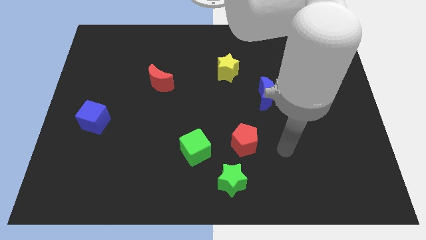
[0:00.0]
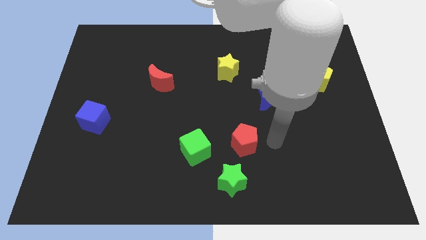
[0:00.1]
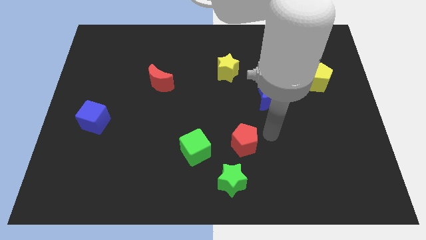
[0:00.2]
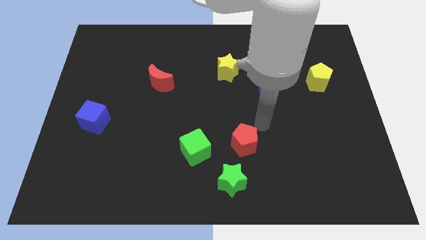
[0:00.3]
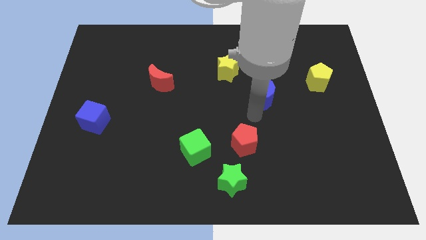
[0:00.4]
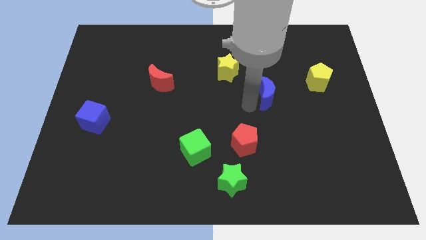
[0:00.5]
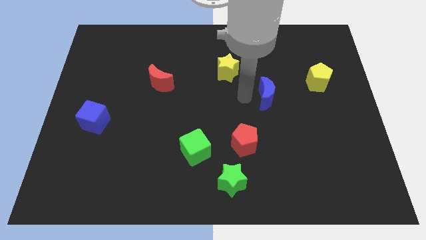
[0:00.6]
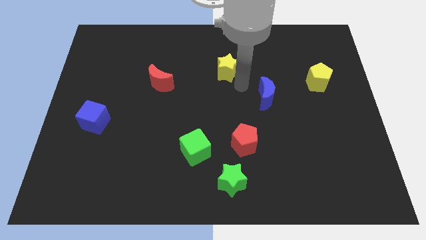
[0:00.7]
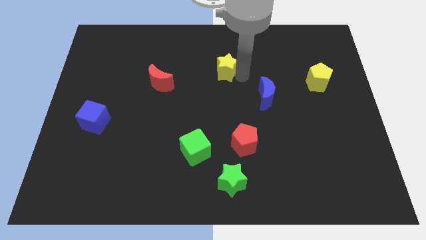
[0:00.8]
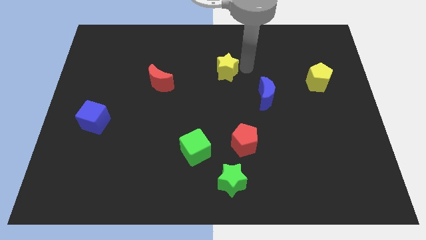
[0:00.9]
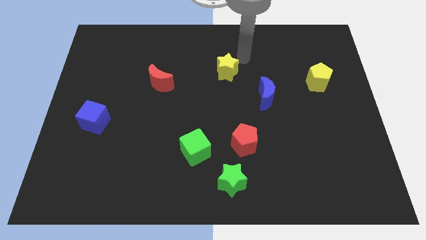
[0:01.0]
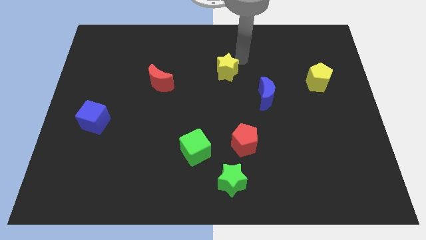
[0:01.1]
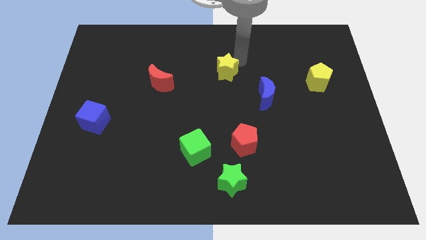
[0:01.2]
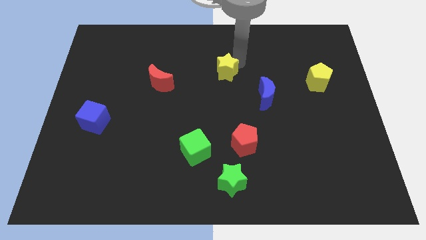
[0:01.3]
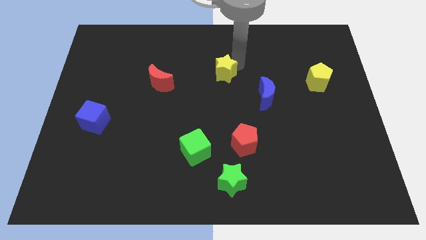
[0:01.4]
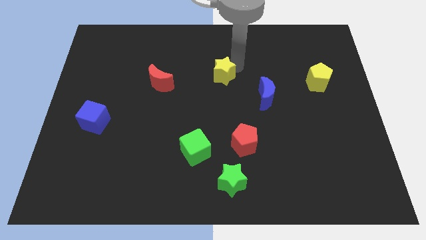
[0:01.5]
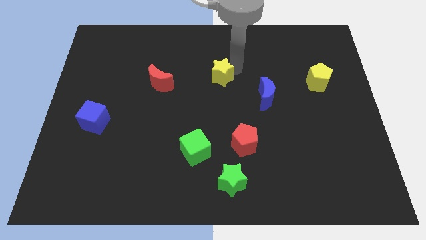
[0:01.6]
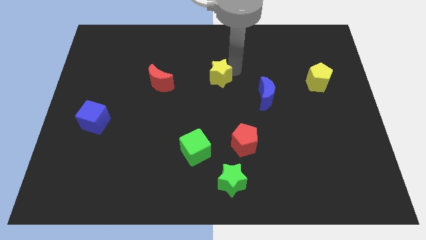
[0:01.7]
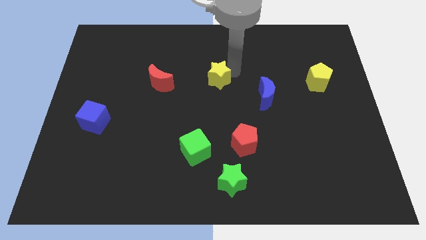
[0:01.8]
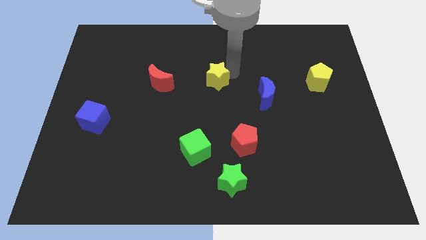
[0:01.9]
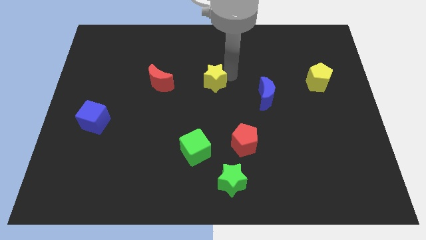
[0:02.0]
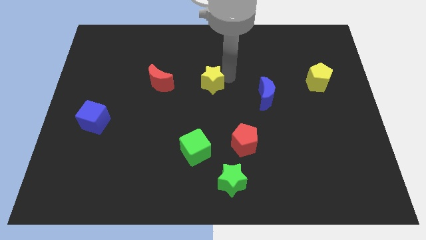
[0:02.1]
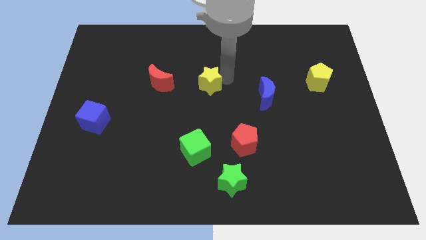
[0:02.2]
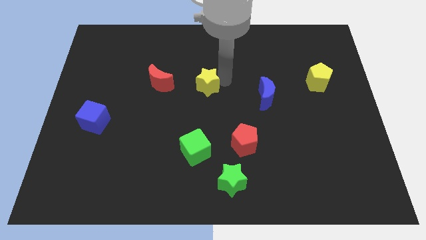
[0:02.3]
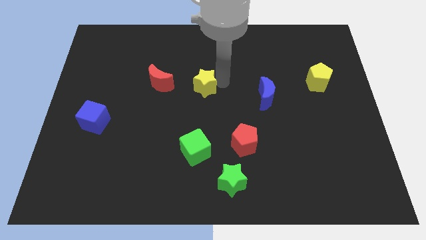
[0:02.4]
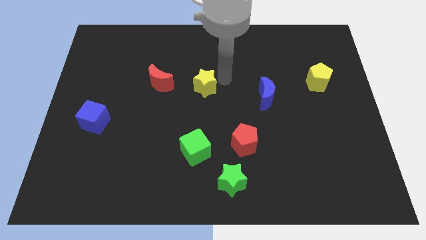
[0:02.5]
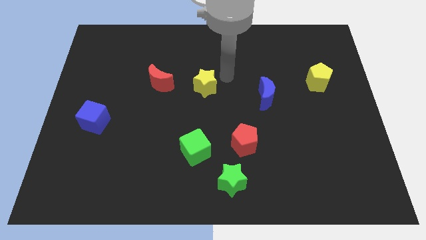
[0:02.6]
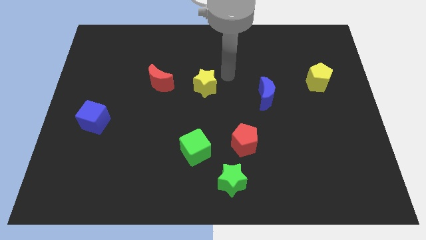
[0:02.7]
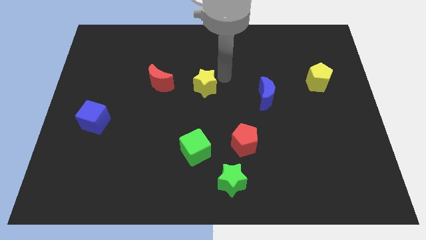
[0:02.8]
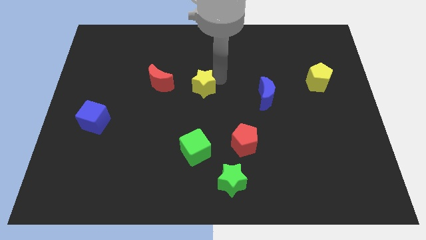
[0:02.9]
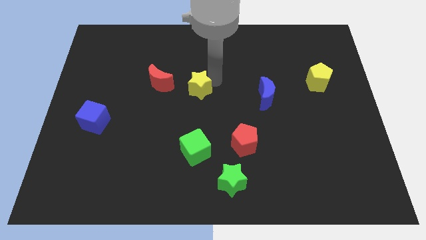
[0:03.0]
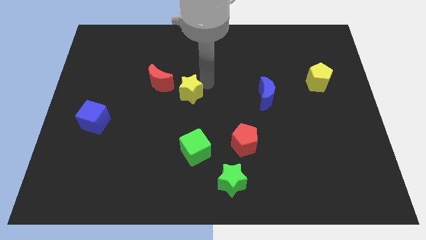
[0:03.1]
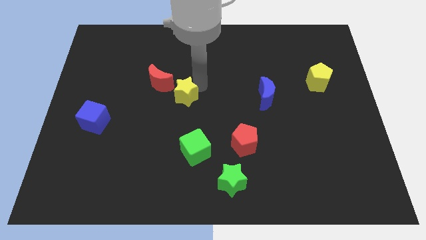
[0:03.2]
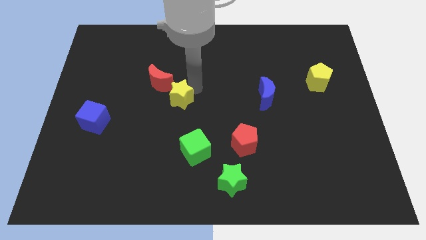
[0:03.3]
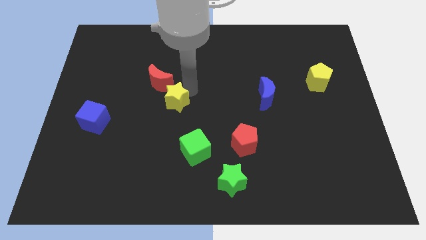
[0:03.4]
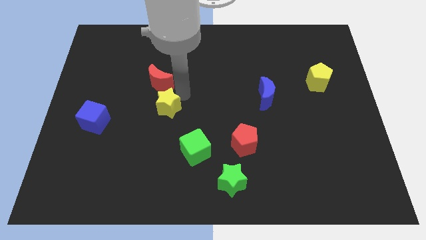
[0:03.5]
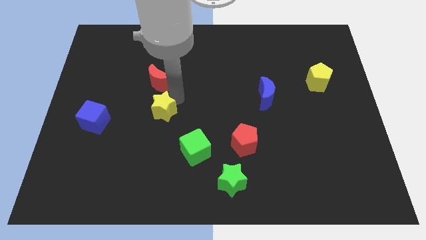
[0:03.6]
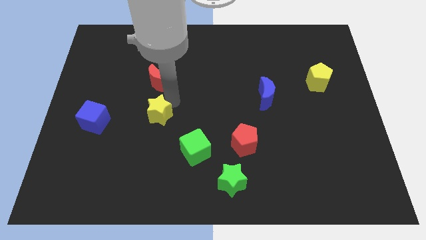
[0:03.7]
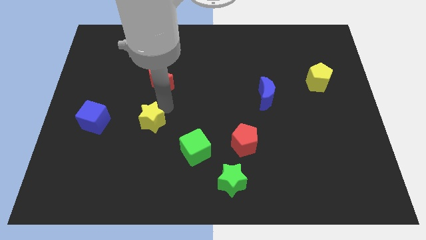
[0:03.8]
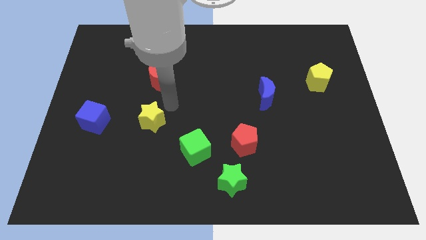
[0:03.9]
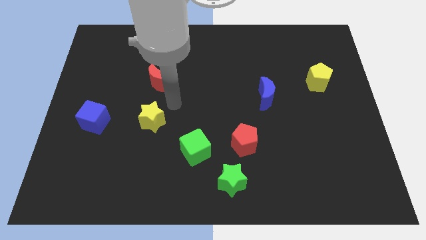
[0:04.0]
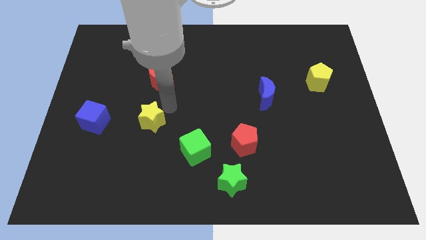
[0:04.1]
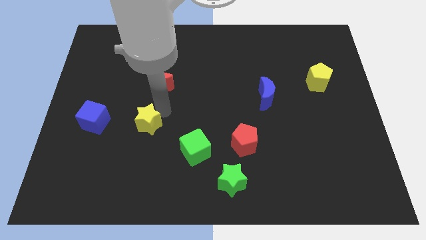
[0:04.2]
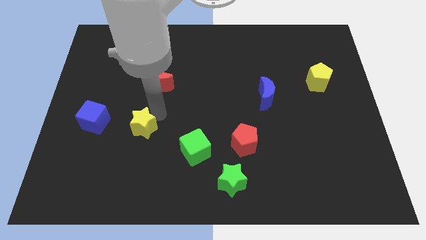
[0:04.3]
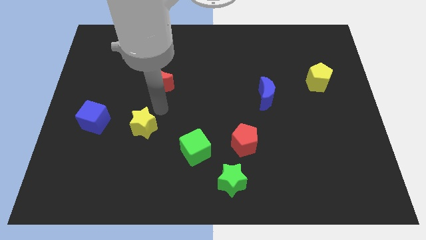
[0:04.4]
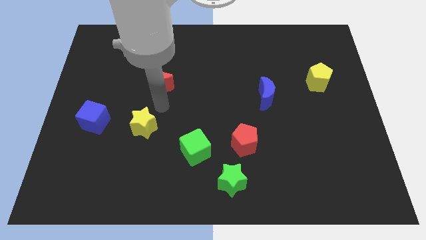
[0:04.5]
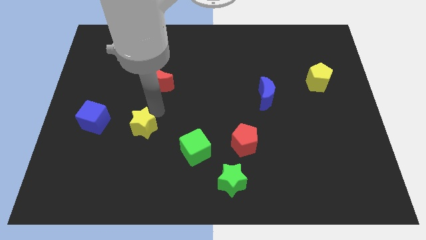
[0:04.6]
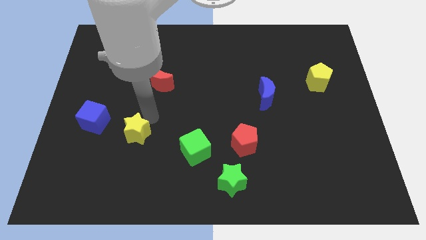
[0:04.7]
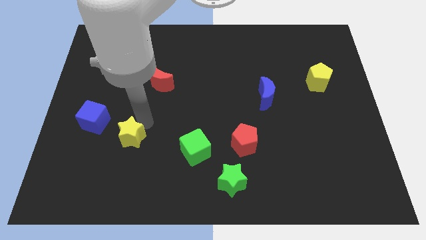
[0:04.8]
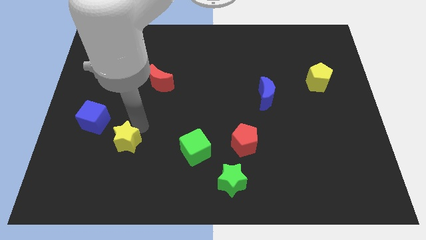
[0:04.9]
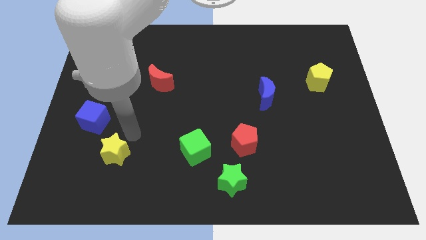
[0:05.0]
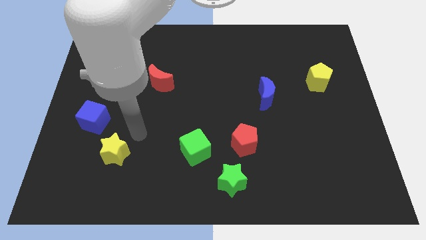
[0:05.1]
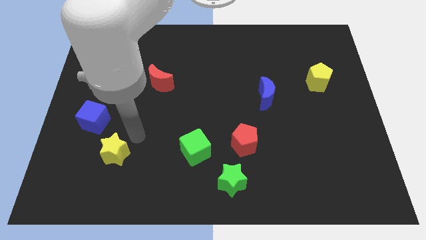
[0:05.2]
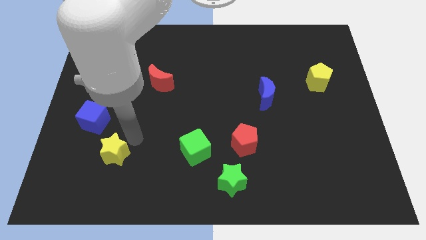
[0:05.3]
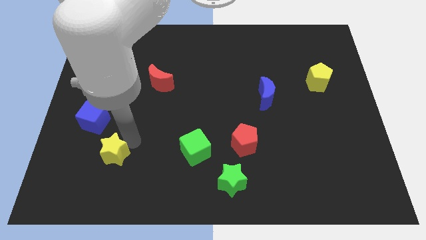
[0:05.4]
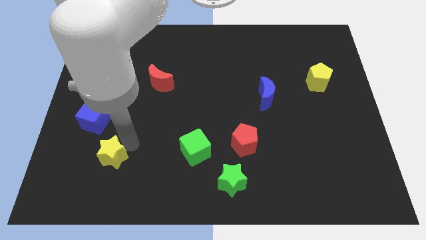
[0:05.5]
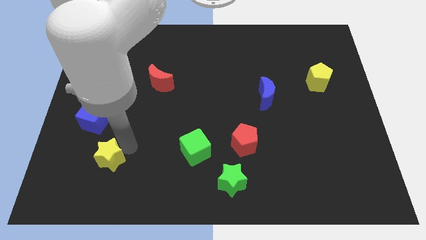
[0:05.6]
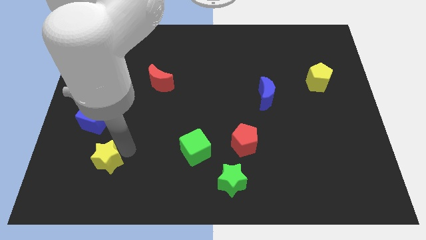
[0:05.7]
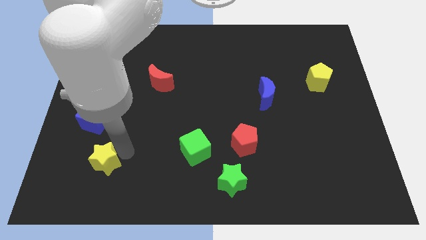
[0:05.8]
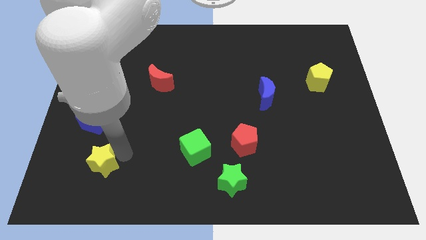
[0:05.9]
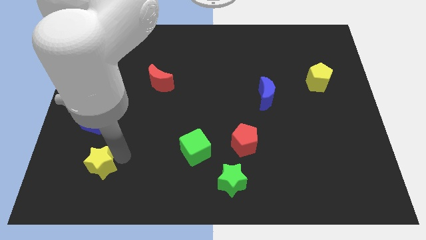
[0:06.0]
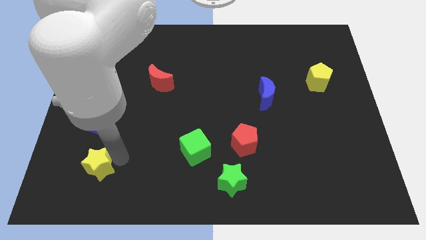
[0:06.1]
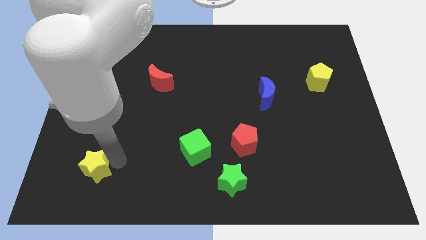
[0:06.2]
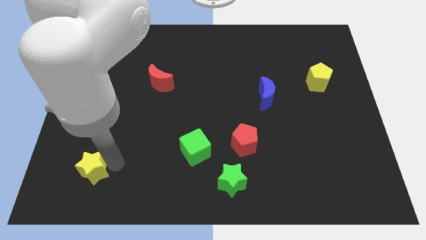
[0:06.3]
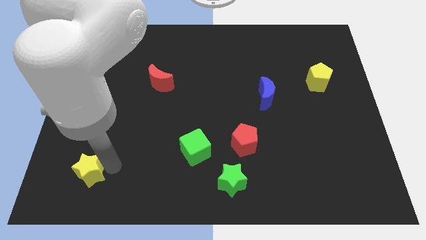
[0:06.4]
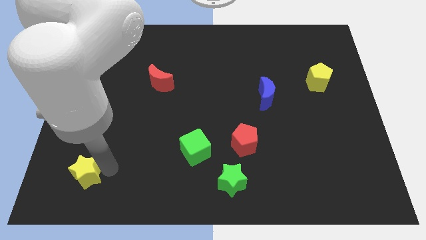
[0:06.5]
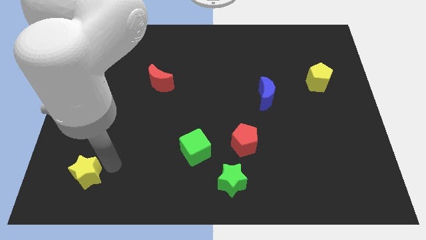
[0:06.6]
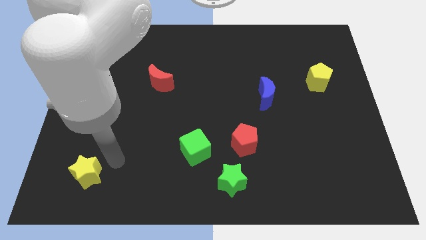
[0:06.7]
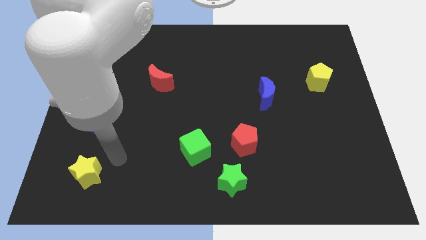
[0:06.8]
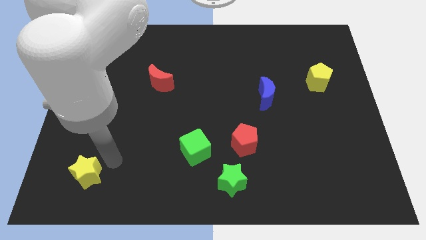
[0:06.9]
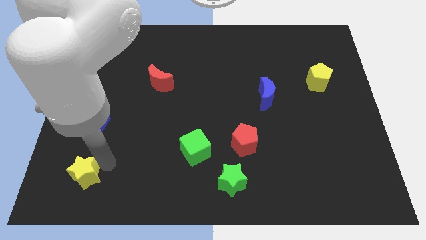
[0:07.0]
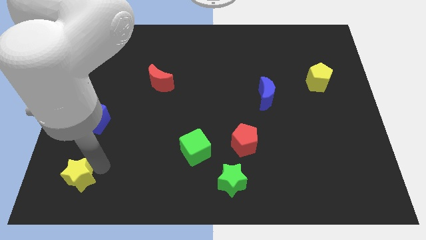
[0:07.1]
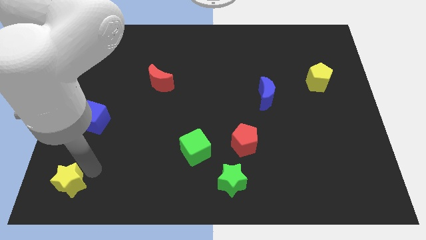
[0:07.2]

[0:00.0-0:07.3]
put the yellow star to the lower left corner
